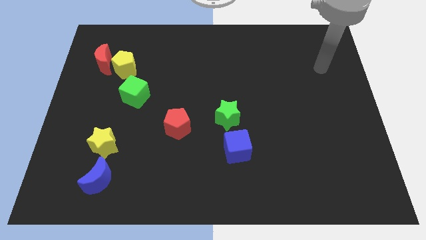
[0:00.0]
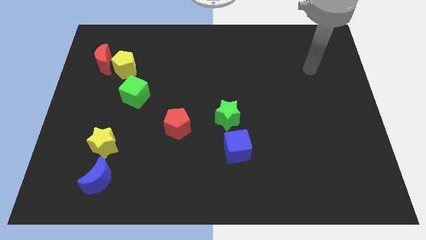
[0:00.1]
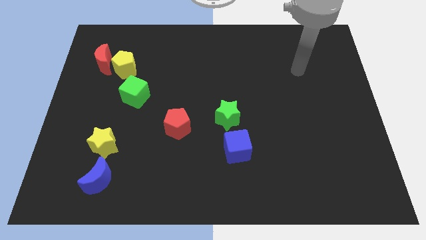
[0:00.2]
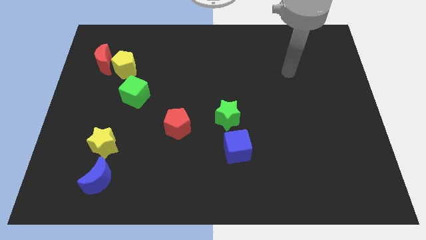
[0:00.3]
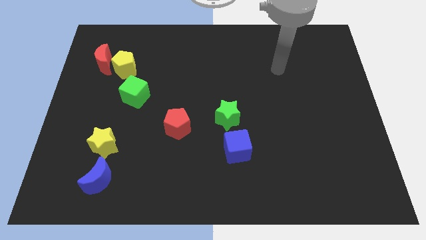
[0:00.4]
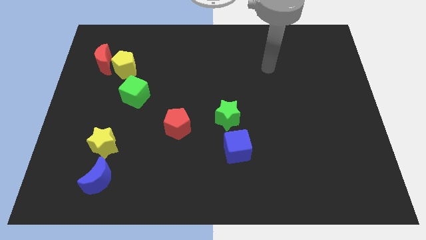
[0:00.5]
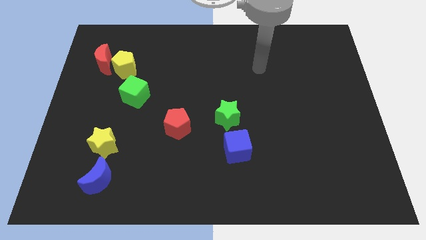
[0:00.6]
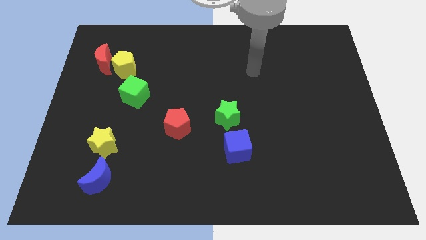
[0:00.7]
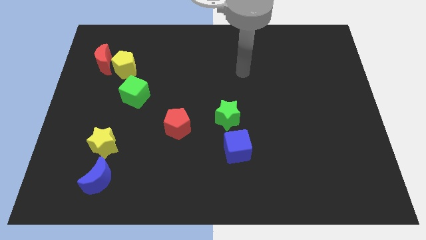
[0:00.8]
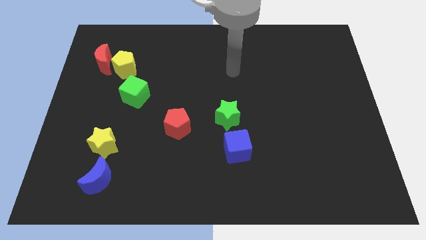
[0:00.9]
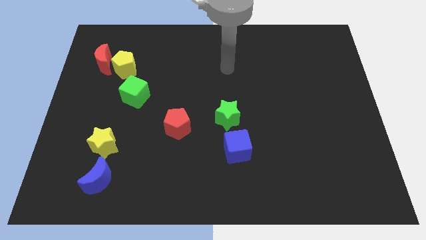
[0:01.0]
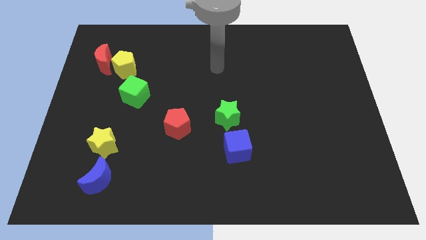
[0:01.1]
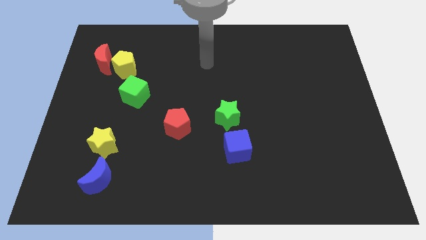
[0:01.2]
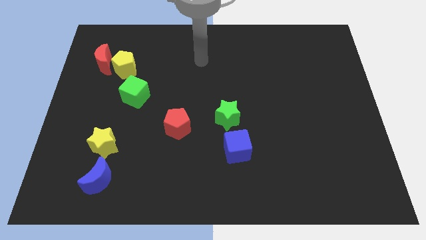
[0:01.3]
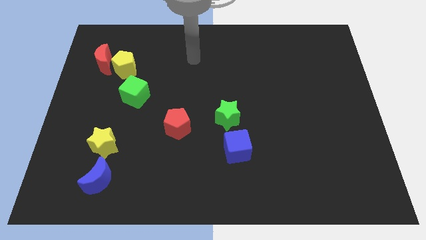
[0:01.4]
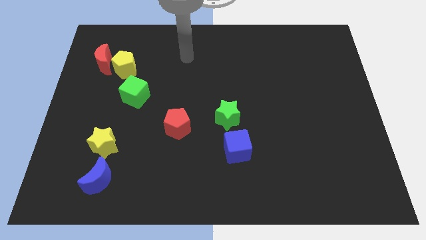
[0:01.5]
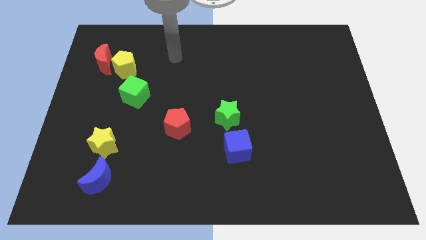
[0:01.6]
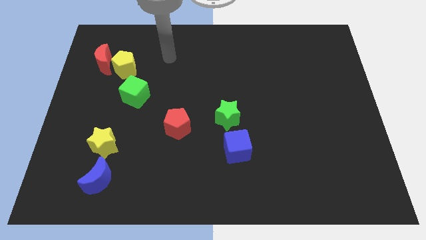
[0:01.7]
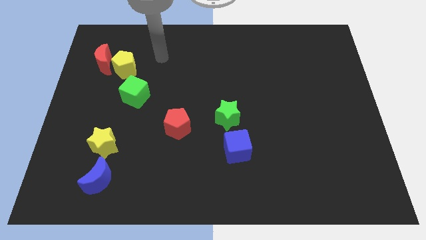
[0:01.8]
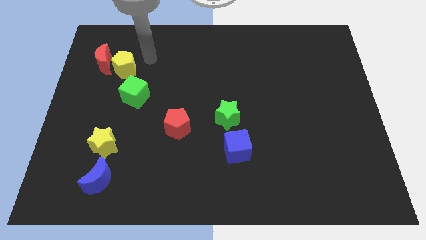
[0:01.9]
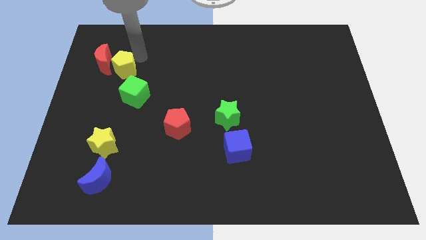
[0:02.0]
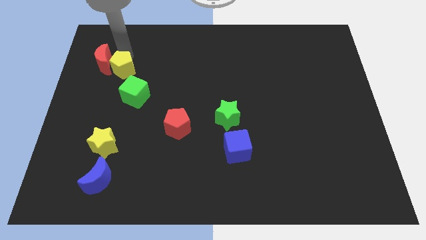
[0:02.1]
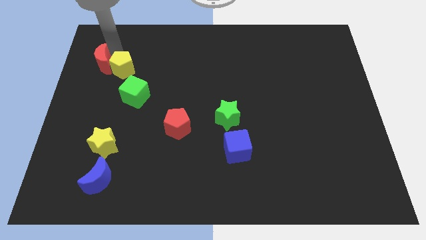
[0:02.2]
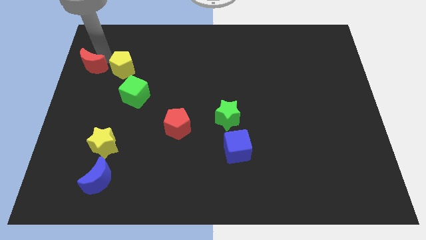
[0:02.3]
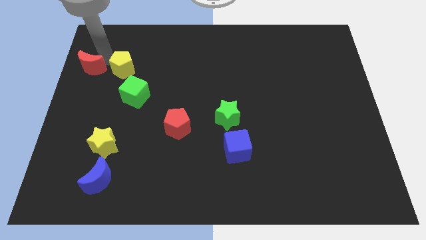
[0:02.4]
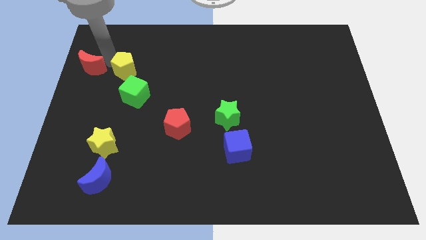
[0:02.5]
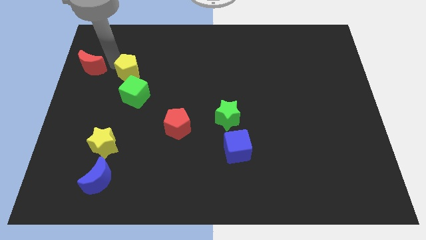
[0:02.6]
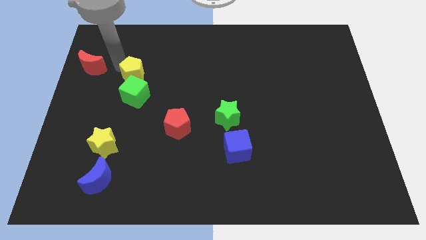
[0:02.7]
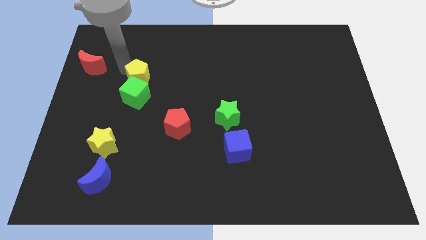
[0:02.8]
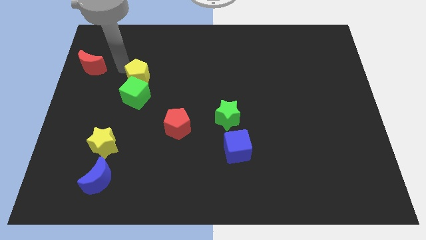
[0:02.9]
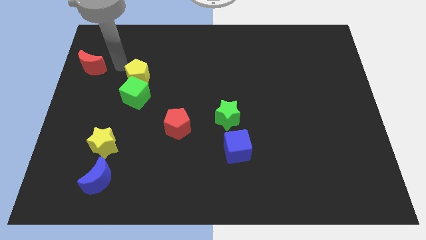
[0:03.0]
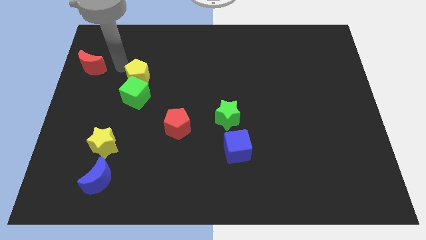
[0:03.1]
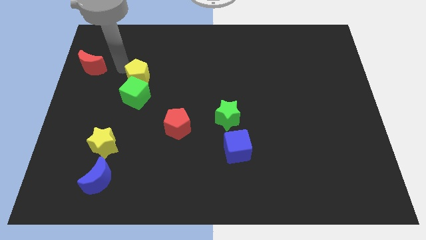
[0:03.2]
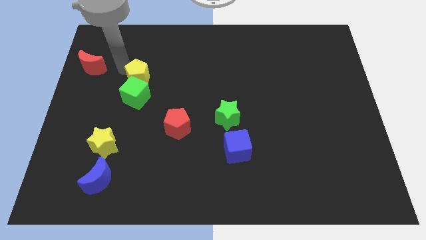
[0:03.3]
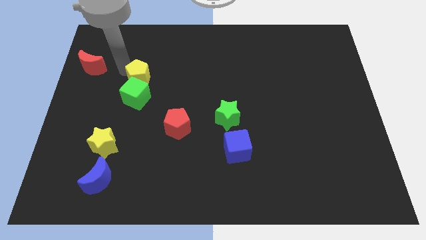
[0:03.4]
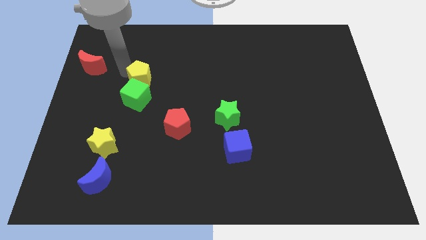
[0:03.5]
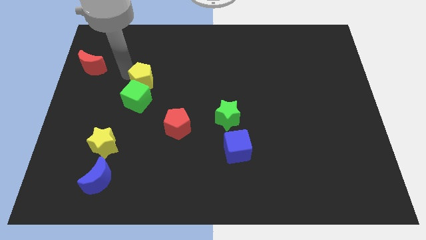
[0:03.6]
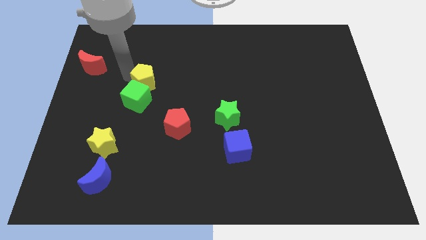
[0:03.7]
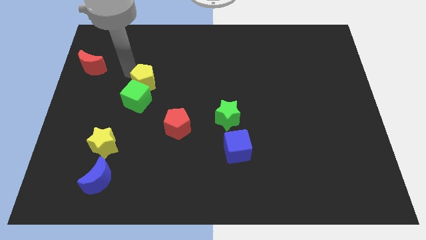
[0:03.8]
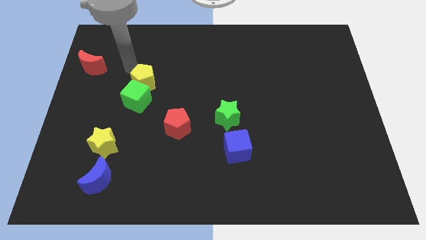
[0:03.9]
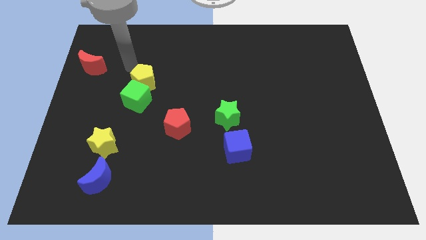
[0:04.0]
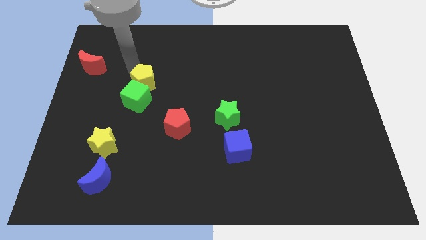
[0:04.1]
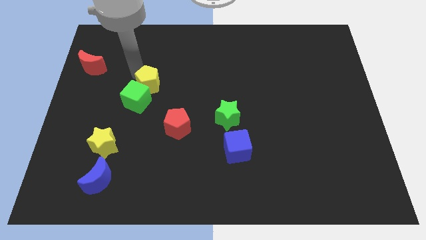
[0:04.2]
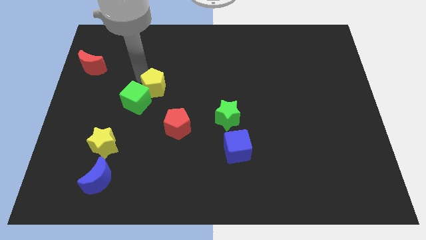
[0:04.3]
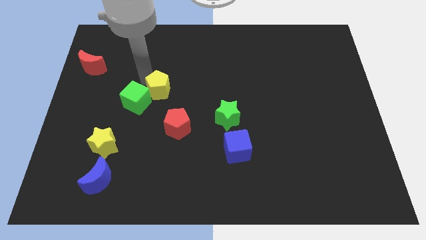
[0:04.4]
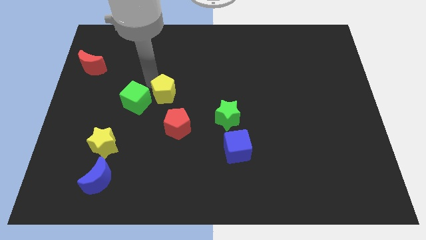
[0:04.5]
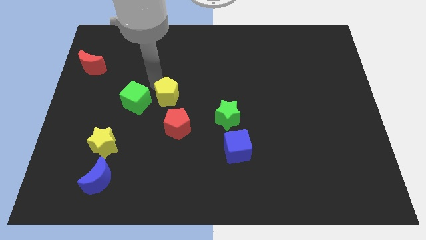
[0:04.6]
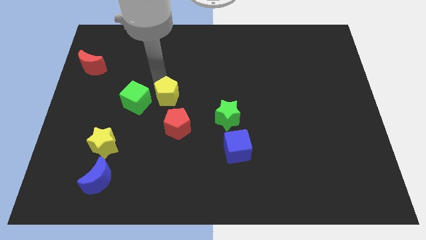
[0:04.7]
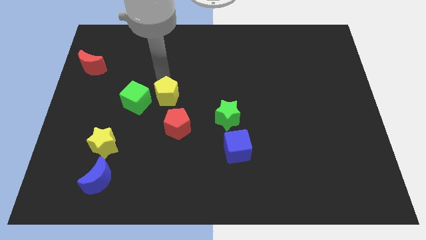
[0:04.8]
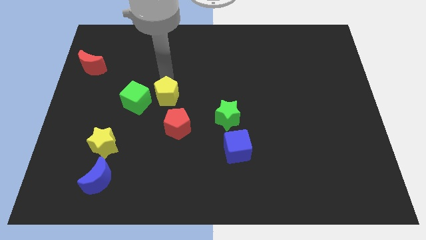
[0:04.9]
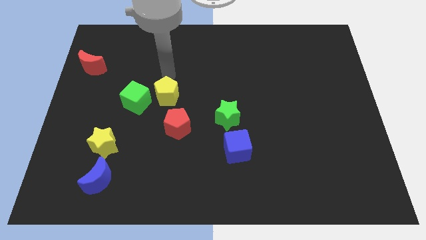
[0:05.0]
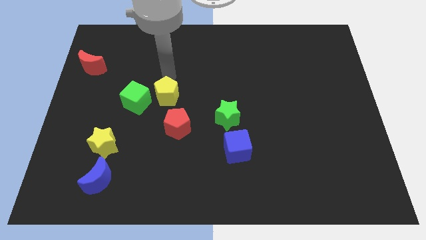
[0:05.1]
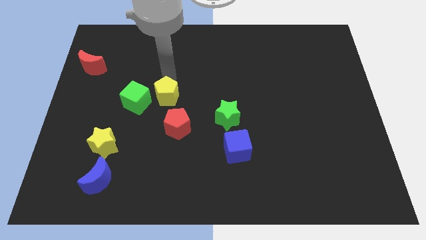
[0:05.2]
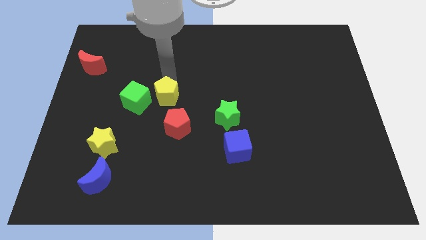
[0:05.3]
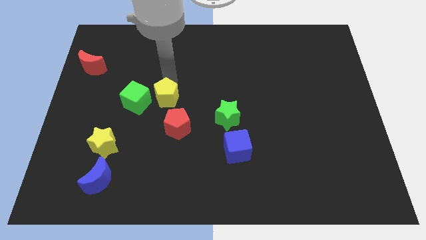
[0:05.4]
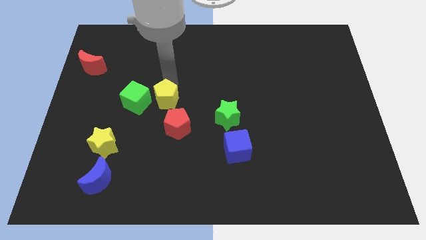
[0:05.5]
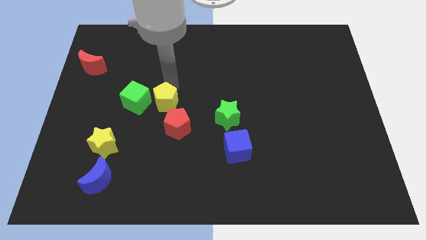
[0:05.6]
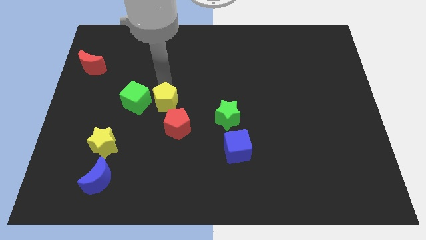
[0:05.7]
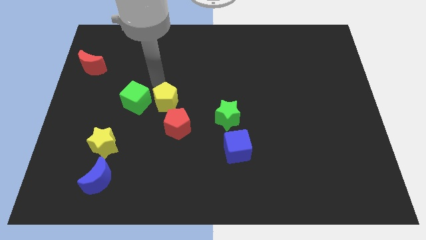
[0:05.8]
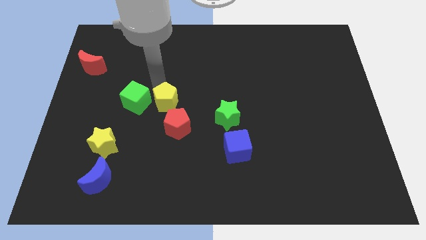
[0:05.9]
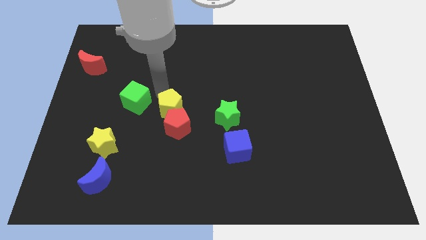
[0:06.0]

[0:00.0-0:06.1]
move the yellow pentagon next to the red pentagon
